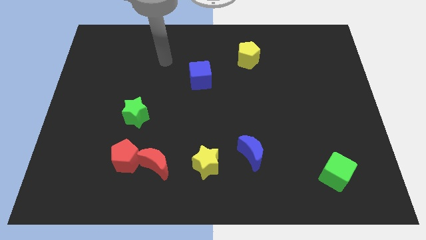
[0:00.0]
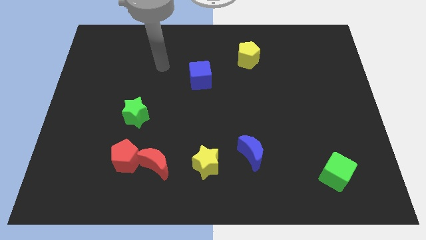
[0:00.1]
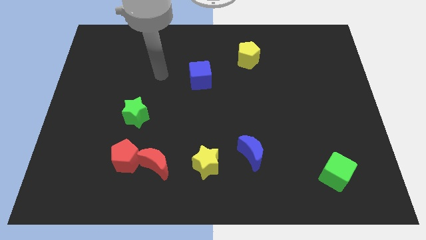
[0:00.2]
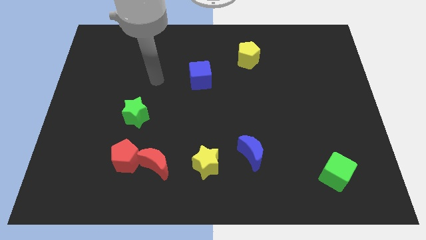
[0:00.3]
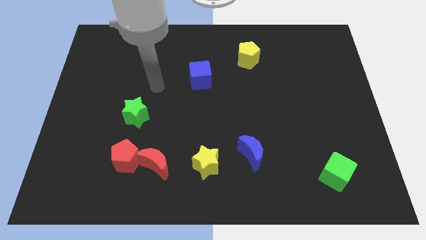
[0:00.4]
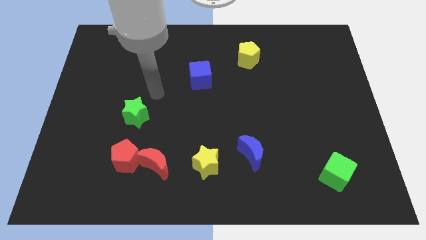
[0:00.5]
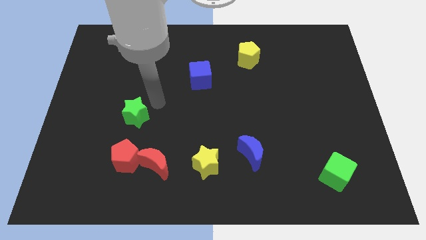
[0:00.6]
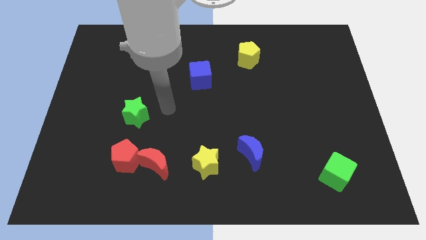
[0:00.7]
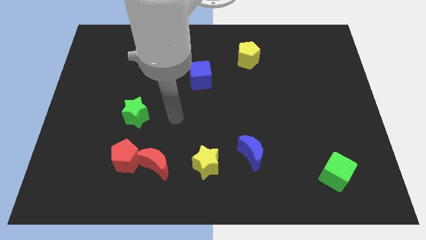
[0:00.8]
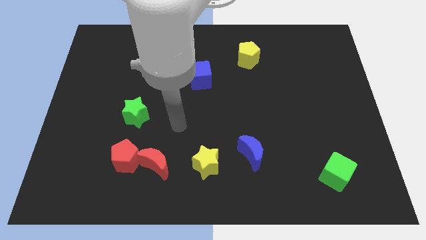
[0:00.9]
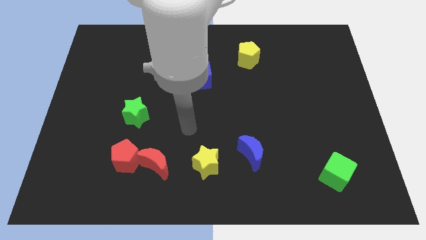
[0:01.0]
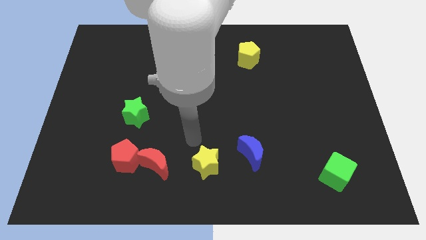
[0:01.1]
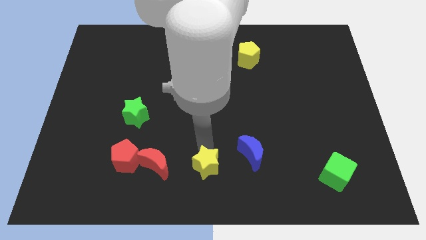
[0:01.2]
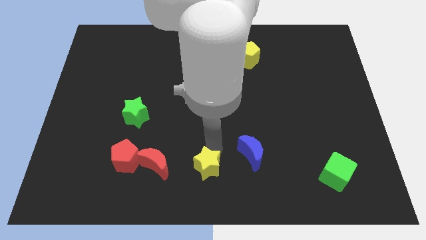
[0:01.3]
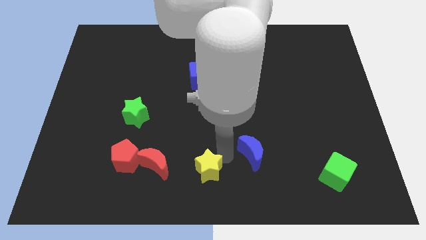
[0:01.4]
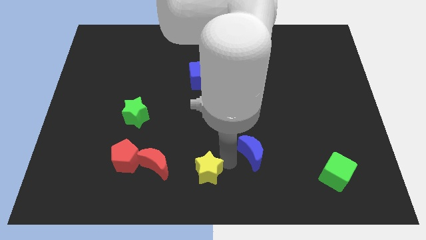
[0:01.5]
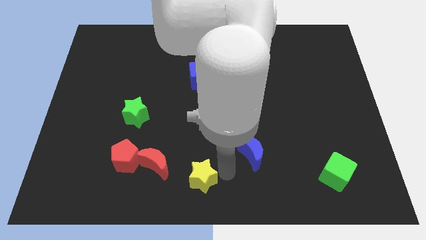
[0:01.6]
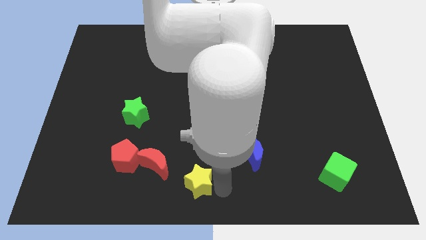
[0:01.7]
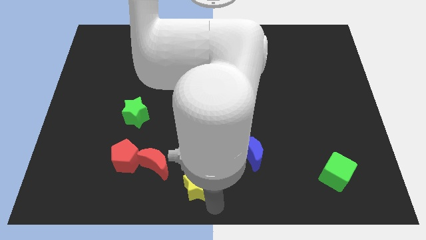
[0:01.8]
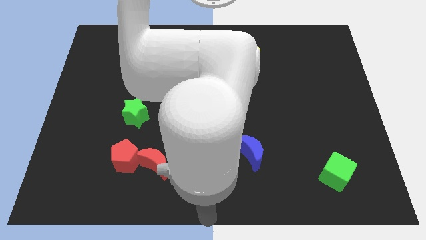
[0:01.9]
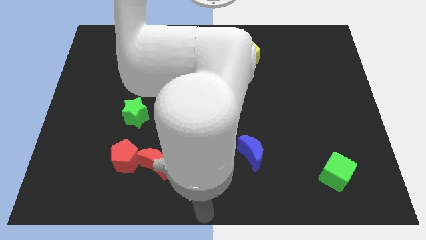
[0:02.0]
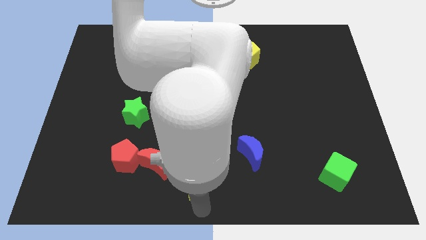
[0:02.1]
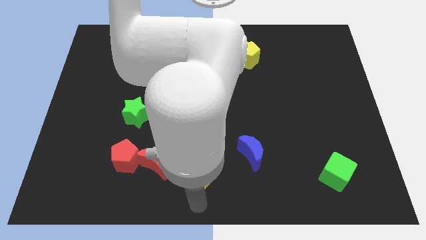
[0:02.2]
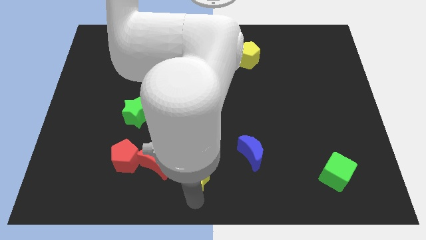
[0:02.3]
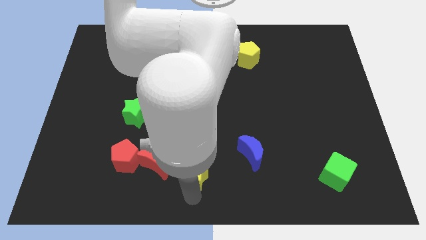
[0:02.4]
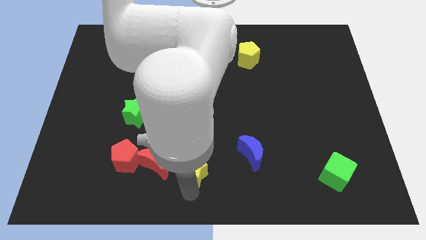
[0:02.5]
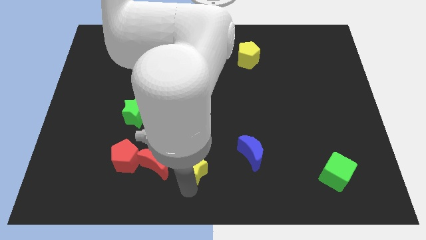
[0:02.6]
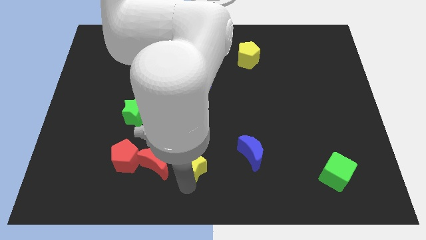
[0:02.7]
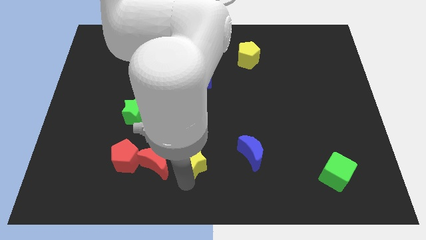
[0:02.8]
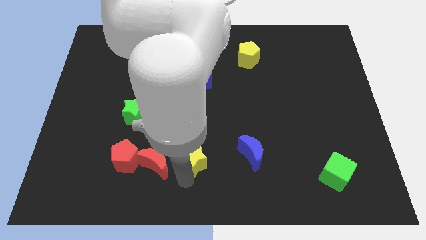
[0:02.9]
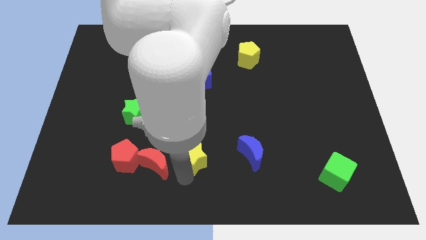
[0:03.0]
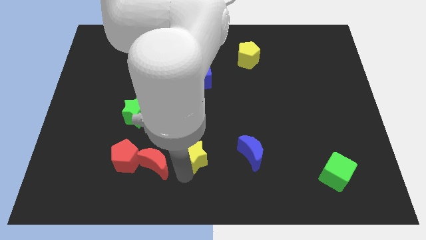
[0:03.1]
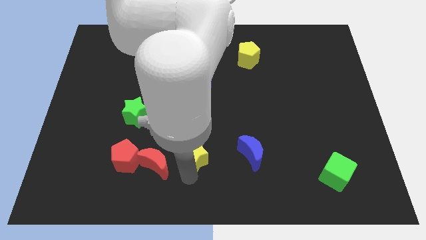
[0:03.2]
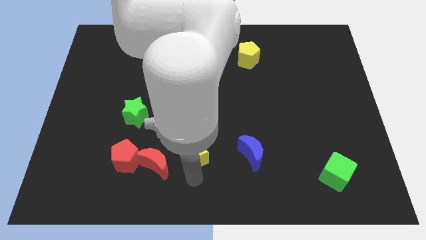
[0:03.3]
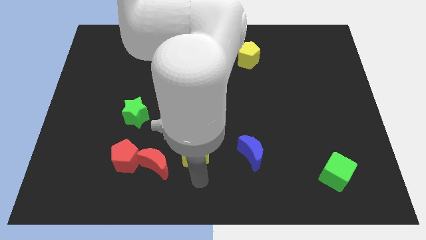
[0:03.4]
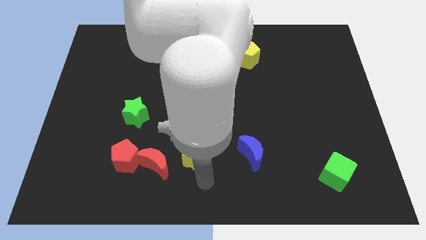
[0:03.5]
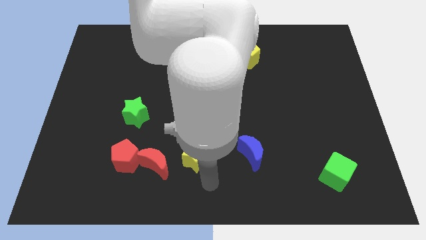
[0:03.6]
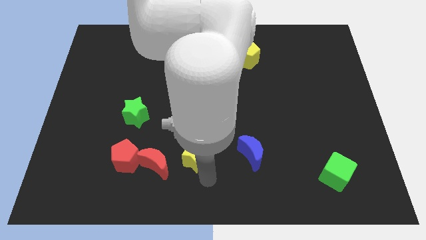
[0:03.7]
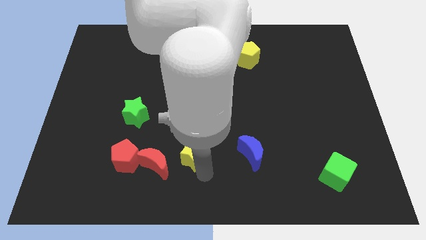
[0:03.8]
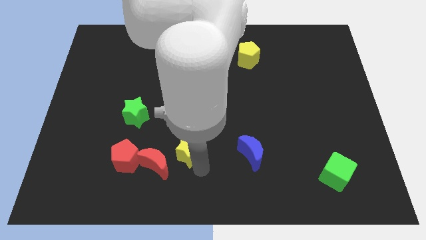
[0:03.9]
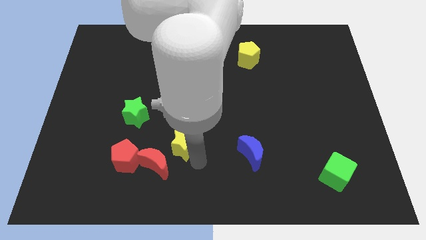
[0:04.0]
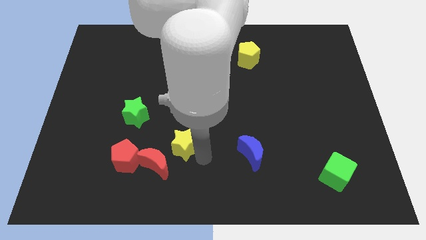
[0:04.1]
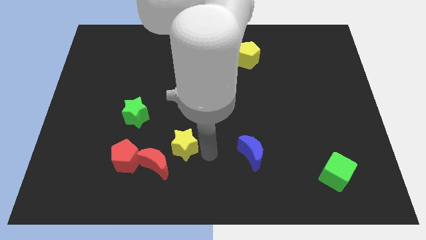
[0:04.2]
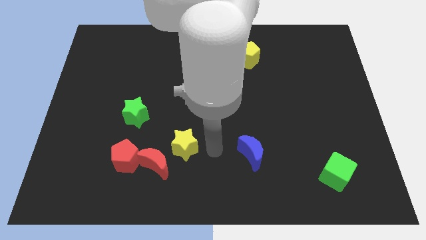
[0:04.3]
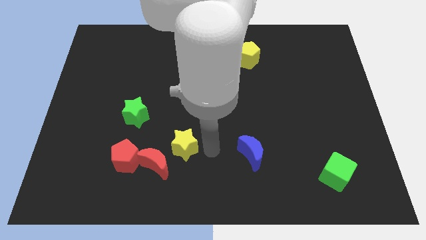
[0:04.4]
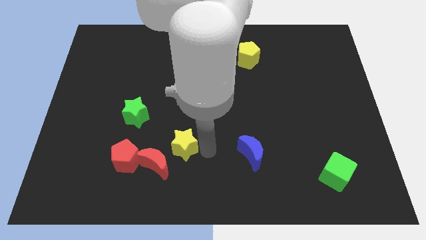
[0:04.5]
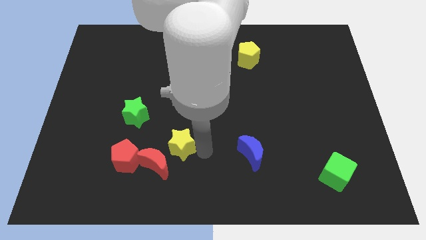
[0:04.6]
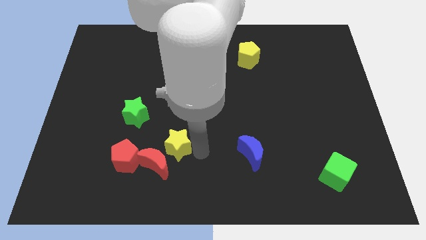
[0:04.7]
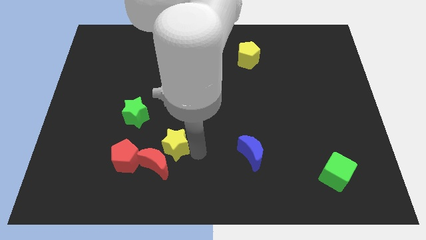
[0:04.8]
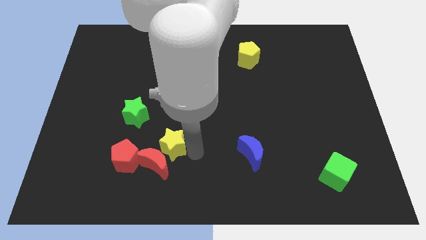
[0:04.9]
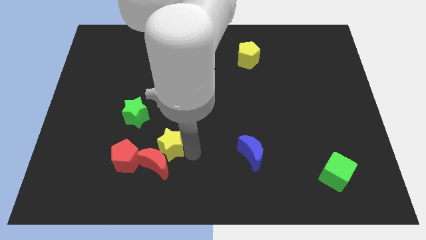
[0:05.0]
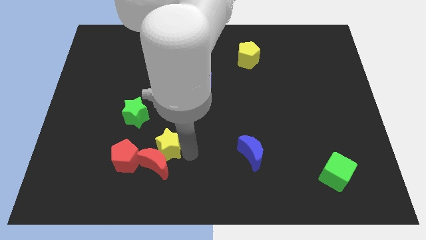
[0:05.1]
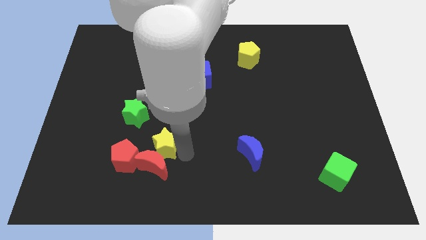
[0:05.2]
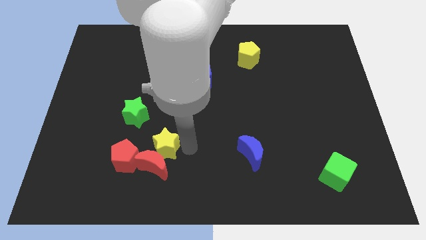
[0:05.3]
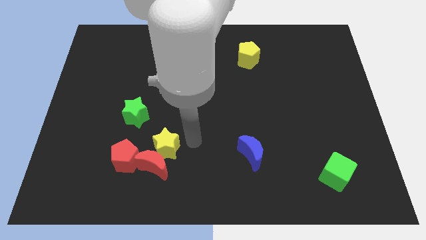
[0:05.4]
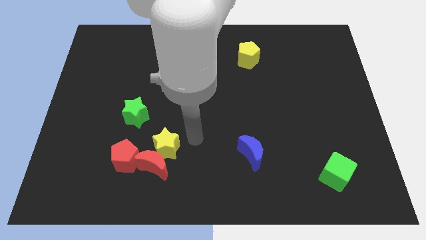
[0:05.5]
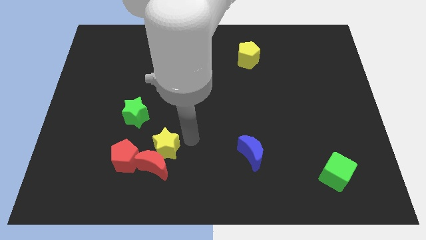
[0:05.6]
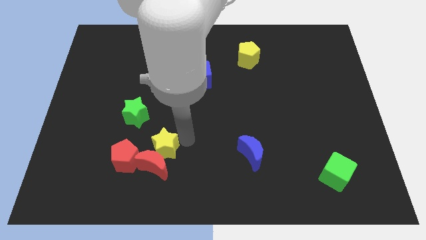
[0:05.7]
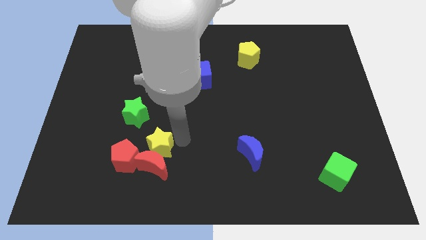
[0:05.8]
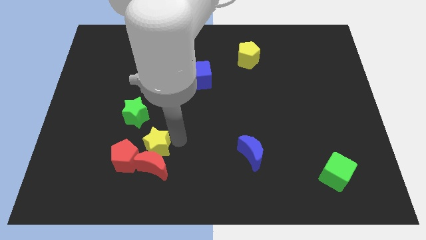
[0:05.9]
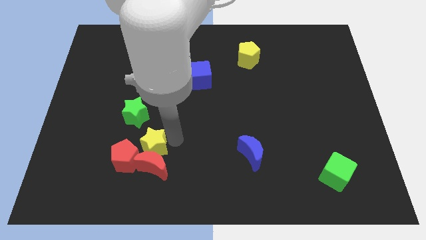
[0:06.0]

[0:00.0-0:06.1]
put the yellow star to the red pentagon

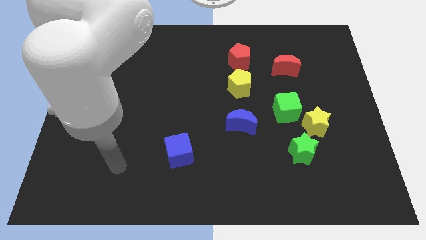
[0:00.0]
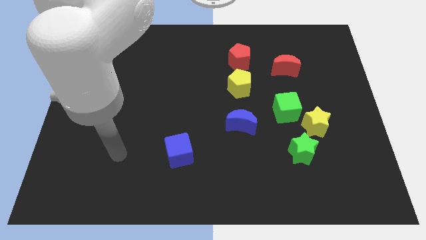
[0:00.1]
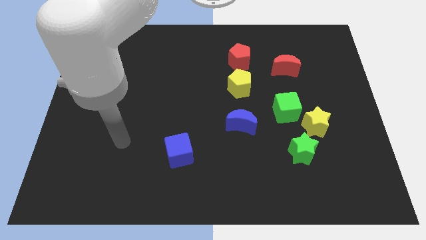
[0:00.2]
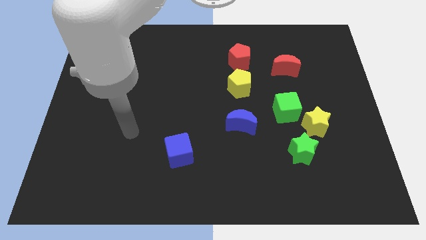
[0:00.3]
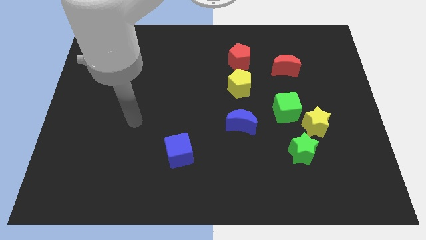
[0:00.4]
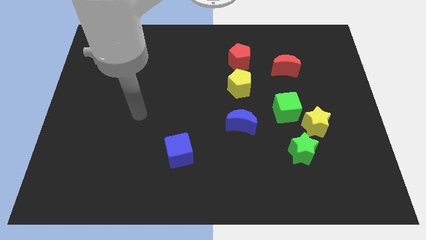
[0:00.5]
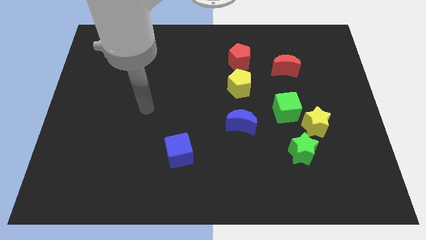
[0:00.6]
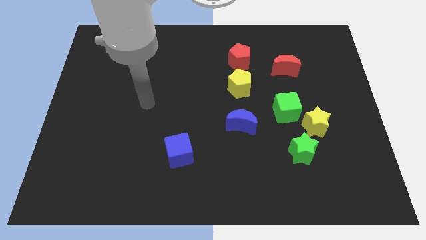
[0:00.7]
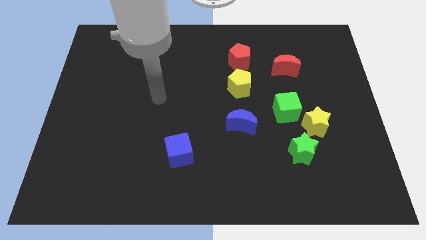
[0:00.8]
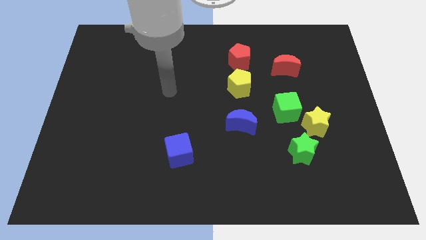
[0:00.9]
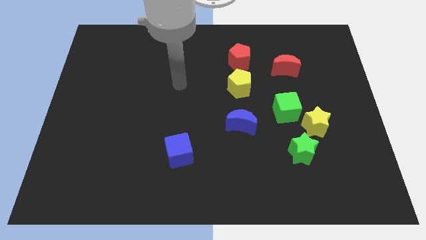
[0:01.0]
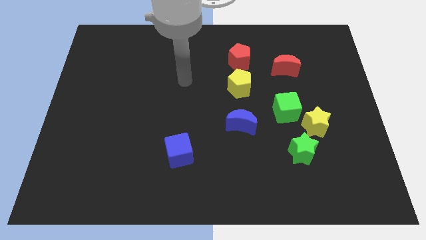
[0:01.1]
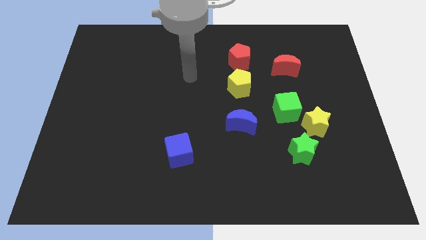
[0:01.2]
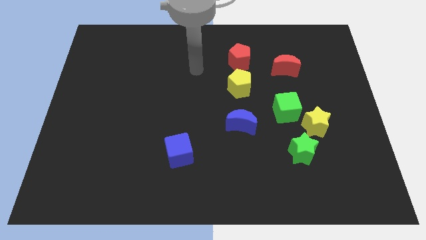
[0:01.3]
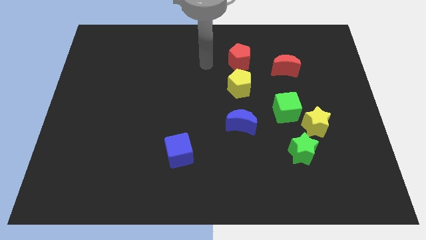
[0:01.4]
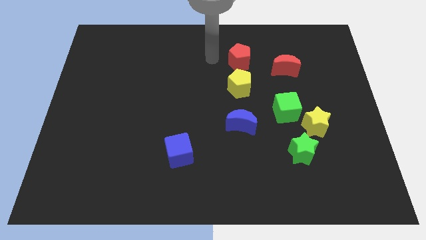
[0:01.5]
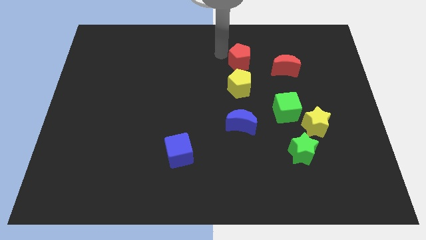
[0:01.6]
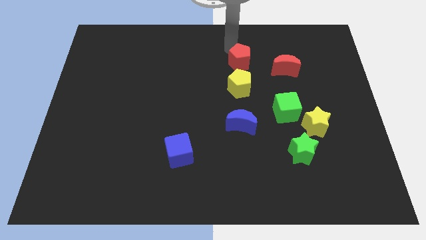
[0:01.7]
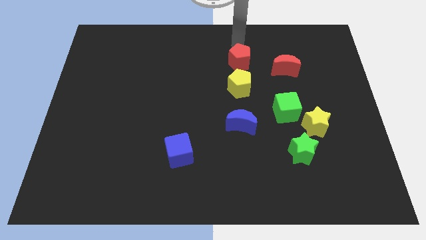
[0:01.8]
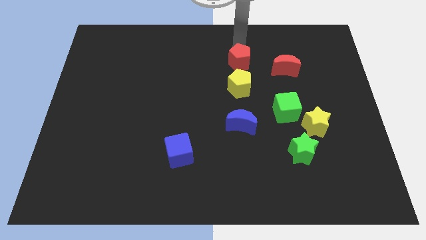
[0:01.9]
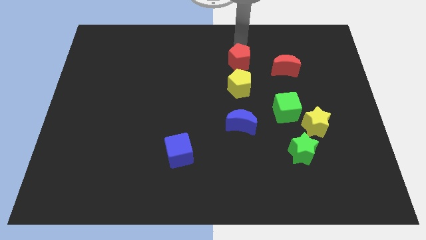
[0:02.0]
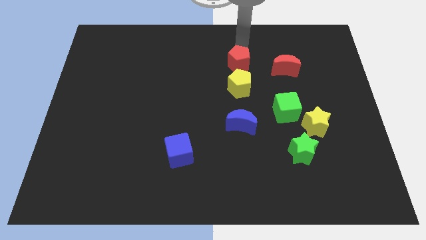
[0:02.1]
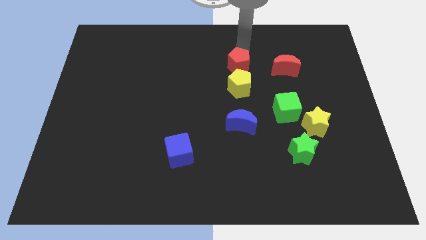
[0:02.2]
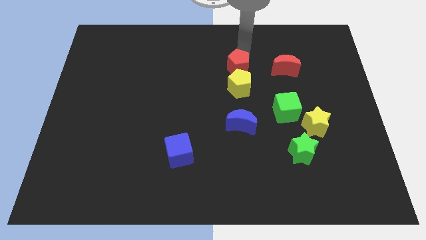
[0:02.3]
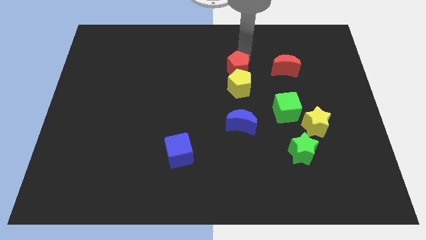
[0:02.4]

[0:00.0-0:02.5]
put the red pentagon to the yellow pentagon
